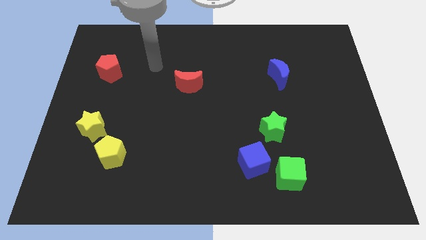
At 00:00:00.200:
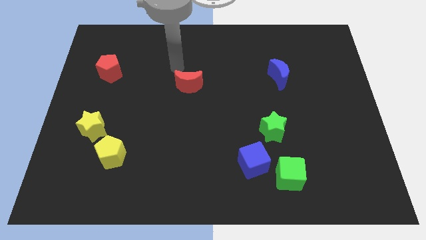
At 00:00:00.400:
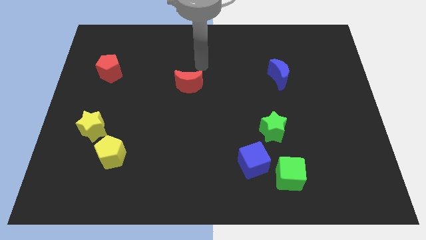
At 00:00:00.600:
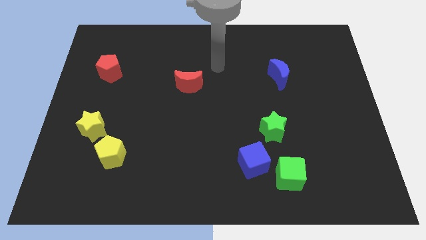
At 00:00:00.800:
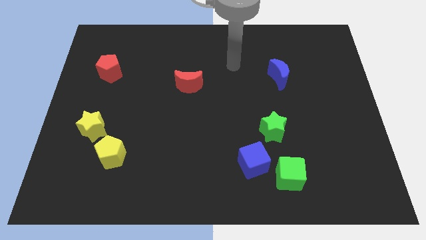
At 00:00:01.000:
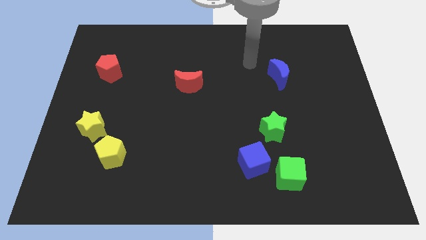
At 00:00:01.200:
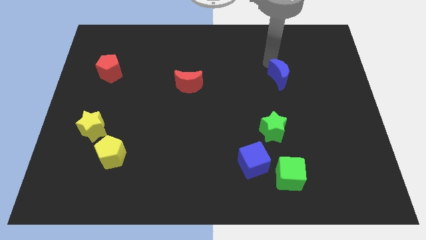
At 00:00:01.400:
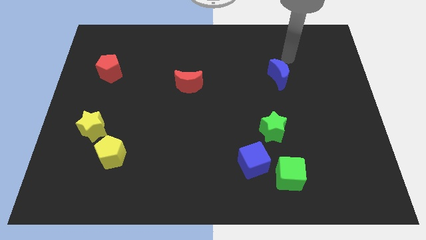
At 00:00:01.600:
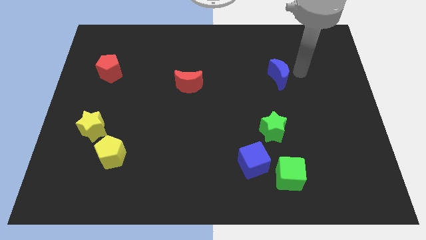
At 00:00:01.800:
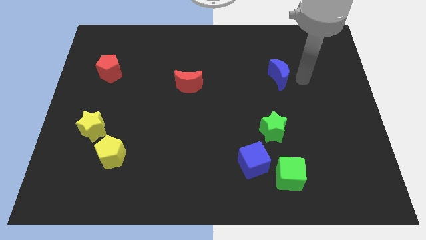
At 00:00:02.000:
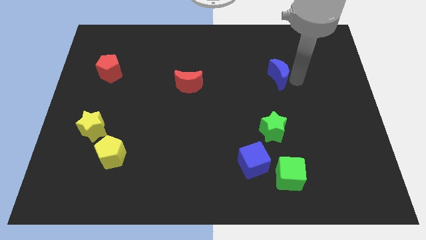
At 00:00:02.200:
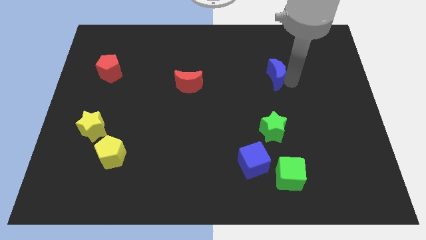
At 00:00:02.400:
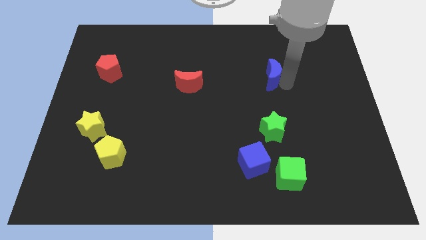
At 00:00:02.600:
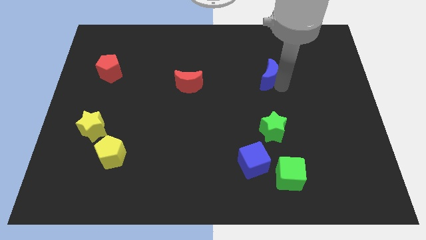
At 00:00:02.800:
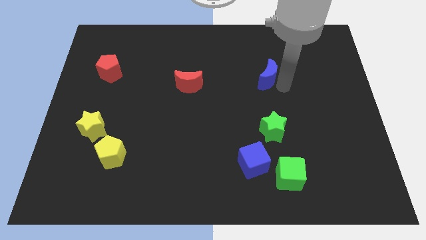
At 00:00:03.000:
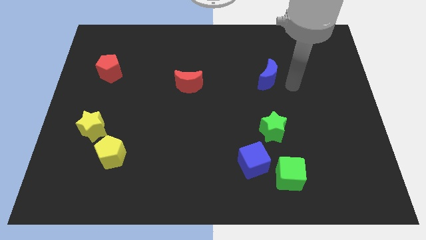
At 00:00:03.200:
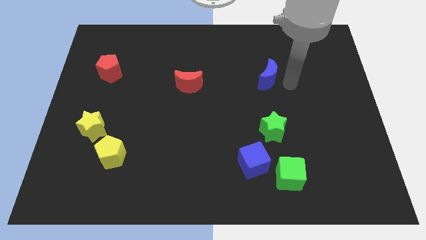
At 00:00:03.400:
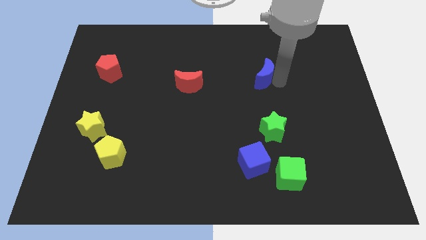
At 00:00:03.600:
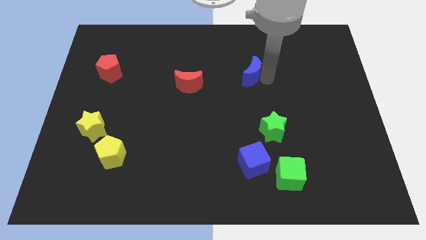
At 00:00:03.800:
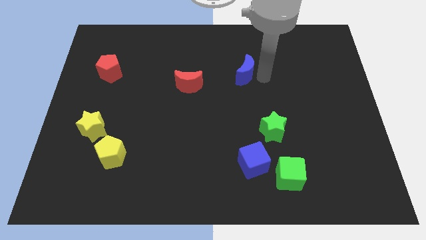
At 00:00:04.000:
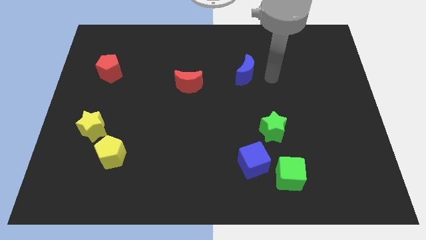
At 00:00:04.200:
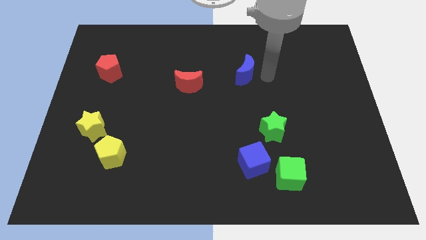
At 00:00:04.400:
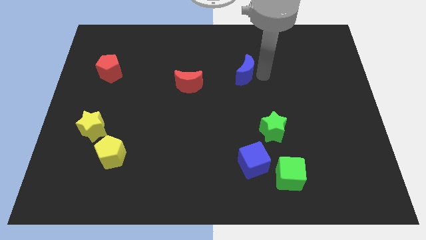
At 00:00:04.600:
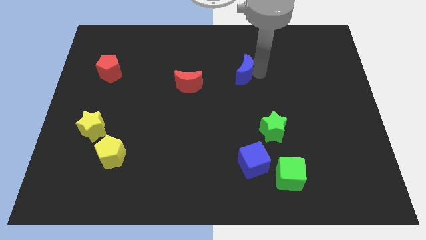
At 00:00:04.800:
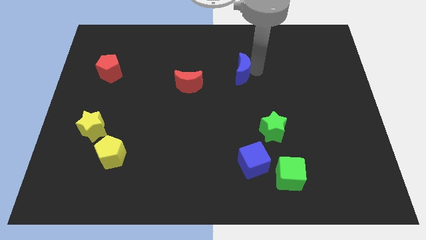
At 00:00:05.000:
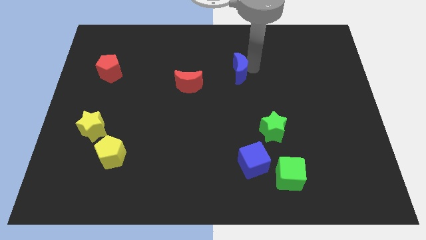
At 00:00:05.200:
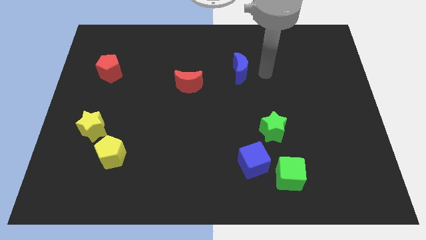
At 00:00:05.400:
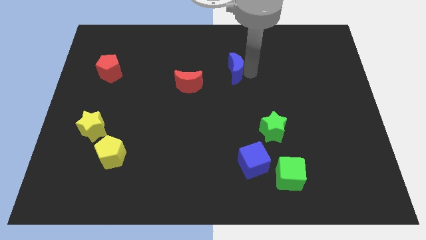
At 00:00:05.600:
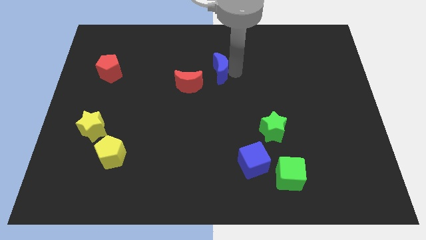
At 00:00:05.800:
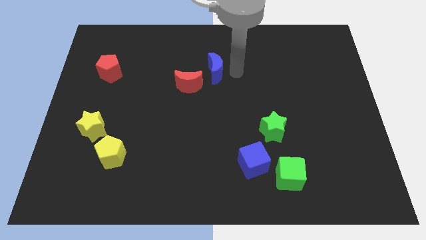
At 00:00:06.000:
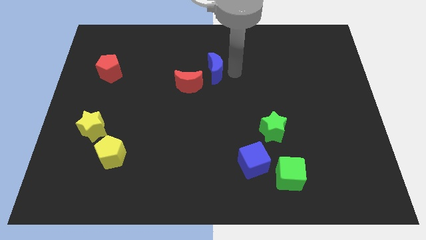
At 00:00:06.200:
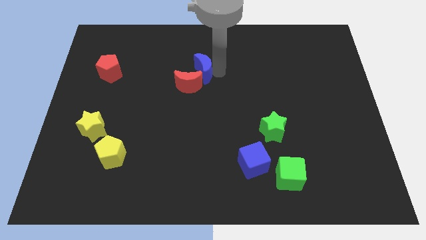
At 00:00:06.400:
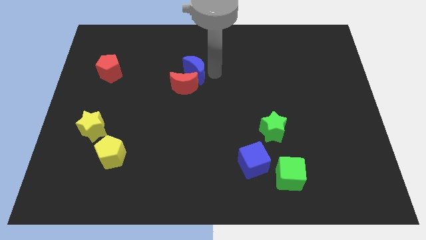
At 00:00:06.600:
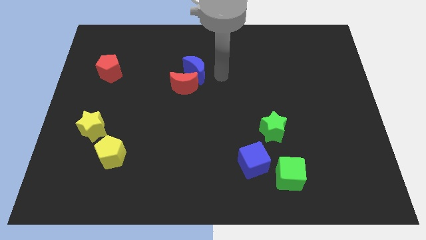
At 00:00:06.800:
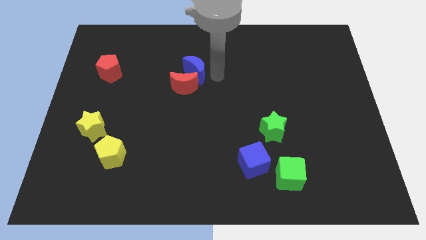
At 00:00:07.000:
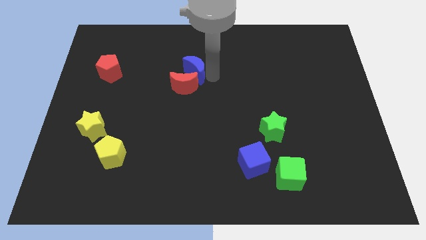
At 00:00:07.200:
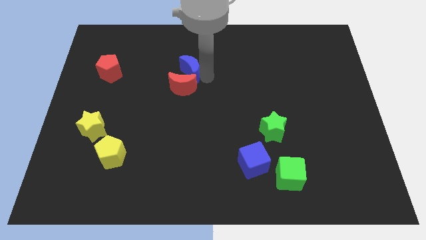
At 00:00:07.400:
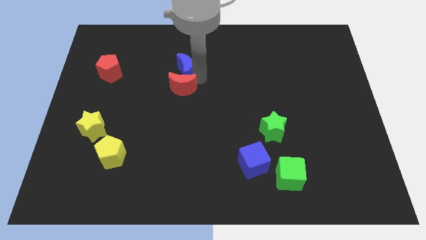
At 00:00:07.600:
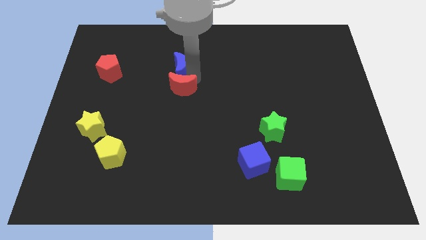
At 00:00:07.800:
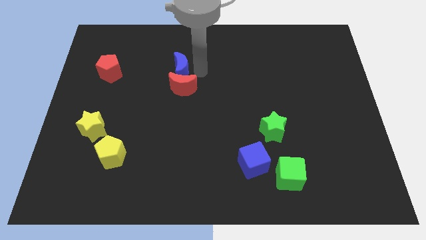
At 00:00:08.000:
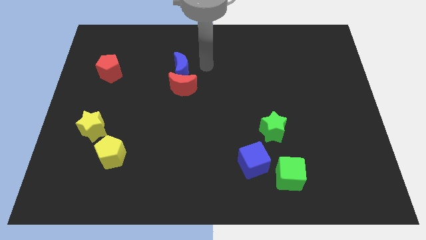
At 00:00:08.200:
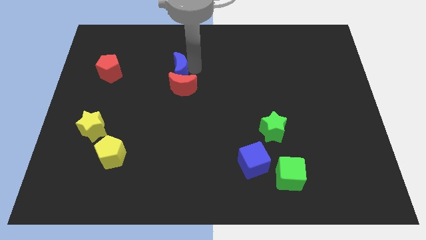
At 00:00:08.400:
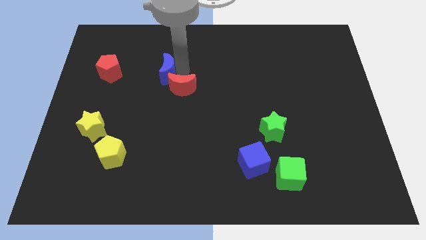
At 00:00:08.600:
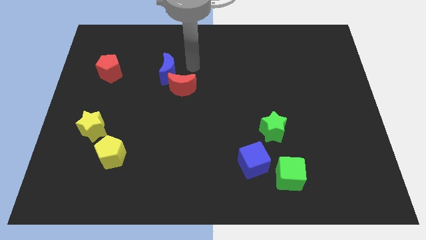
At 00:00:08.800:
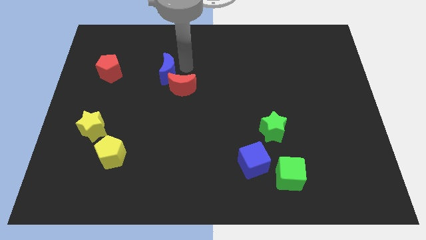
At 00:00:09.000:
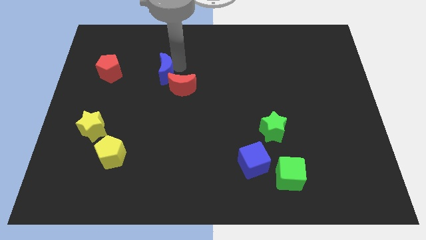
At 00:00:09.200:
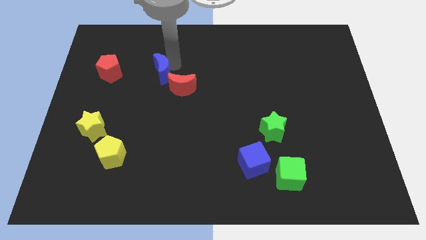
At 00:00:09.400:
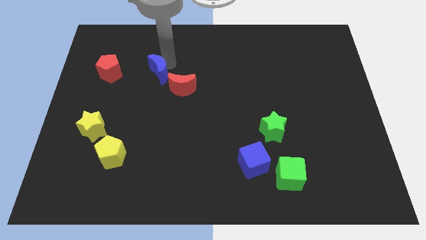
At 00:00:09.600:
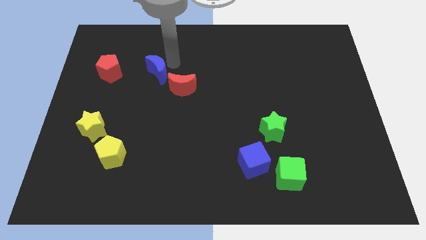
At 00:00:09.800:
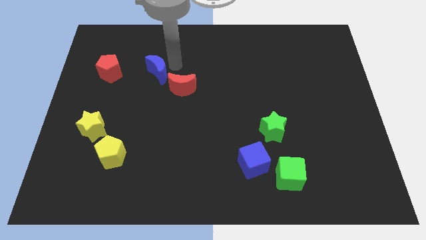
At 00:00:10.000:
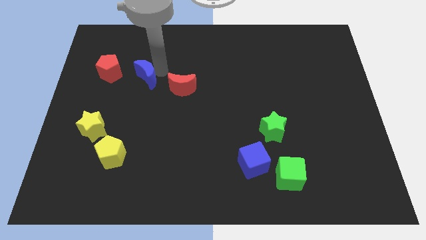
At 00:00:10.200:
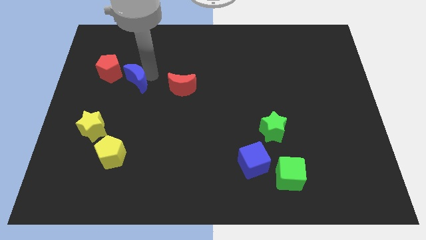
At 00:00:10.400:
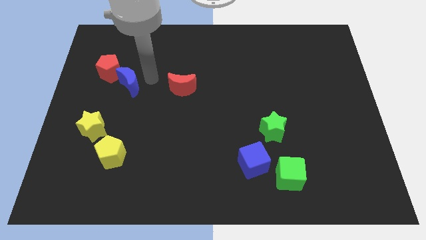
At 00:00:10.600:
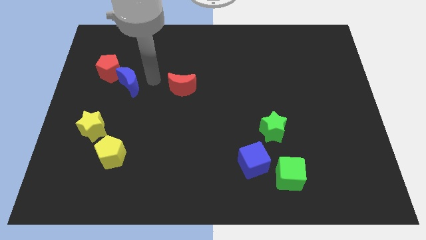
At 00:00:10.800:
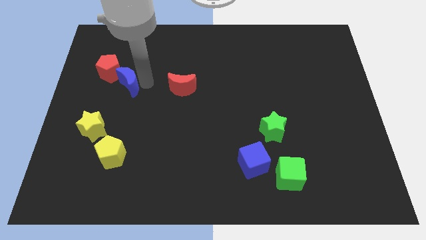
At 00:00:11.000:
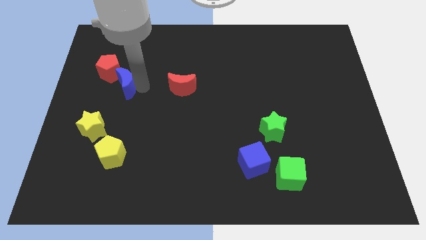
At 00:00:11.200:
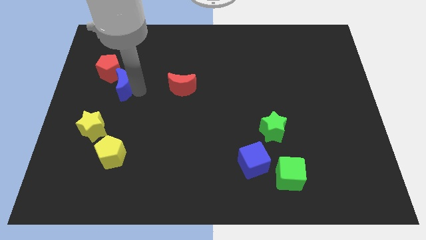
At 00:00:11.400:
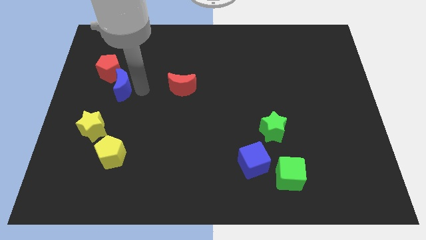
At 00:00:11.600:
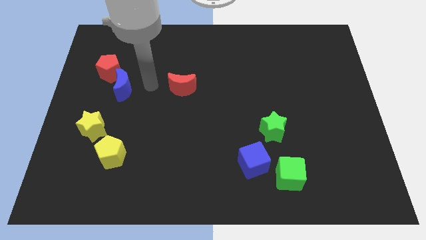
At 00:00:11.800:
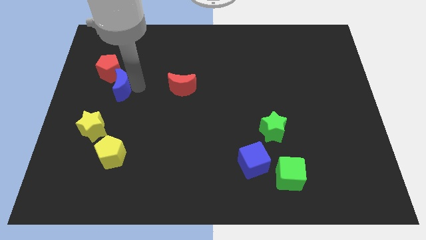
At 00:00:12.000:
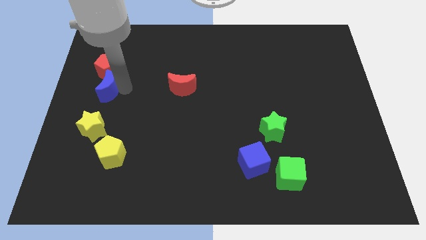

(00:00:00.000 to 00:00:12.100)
put the blue moon to the center left
